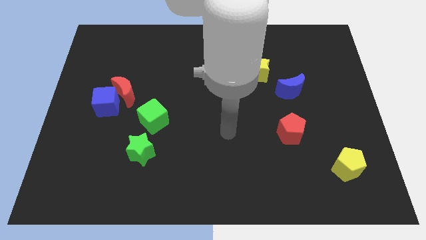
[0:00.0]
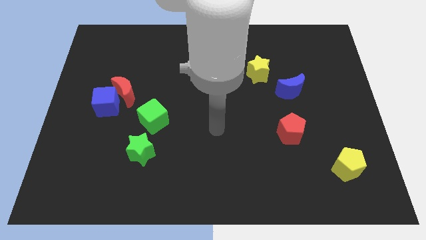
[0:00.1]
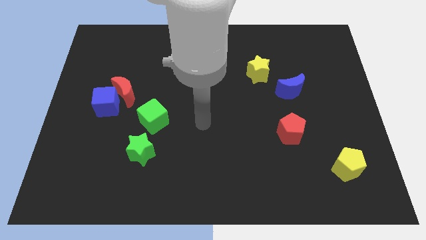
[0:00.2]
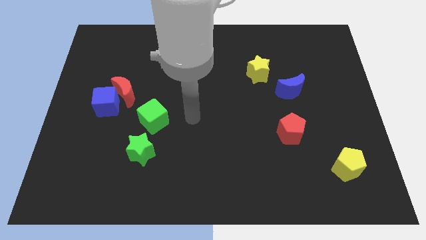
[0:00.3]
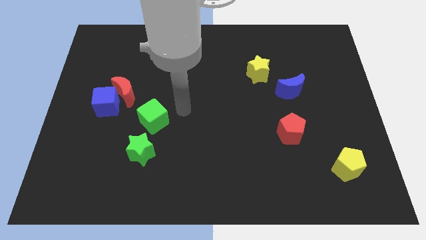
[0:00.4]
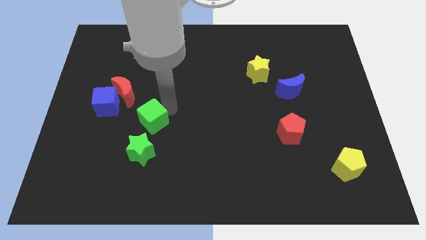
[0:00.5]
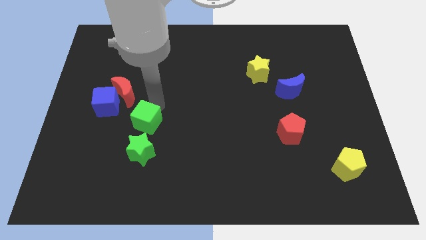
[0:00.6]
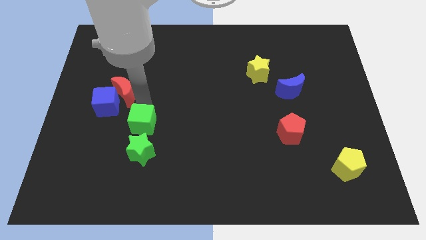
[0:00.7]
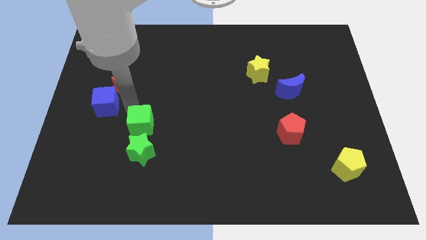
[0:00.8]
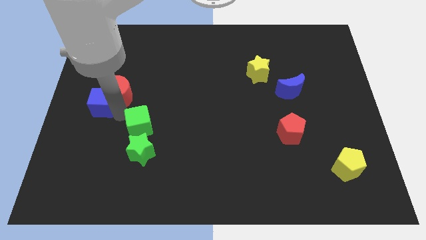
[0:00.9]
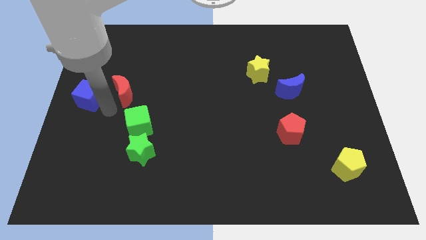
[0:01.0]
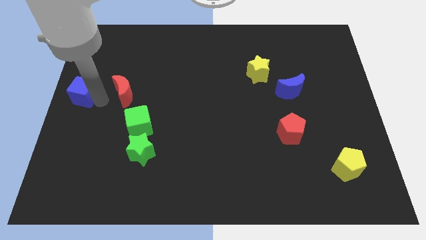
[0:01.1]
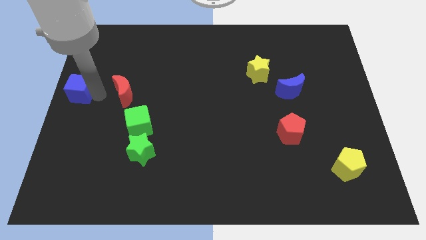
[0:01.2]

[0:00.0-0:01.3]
move the red moon away from the blue cube

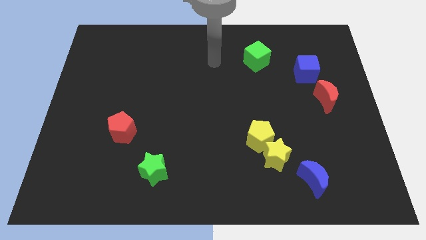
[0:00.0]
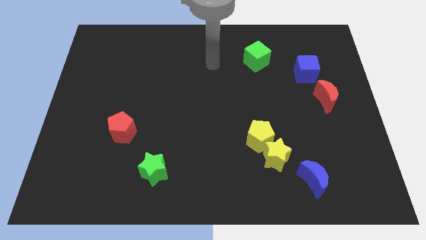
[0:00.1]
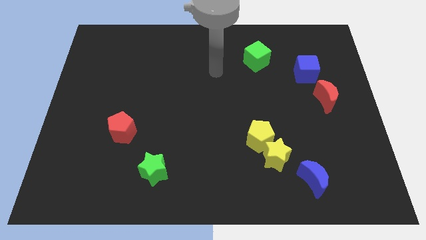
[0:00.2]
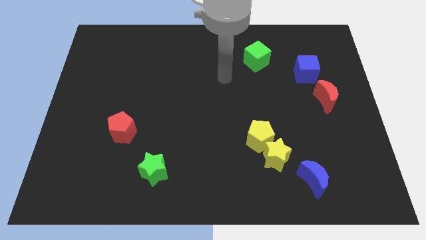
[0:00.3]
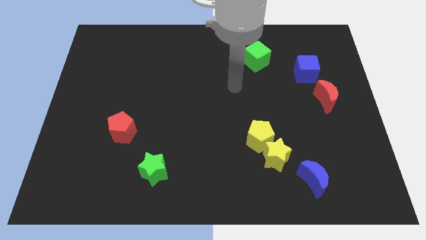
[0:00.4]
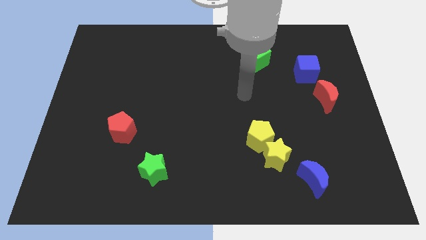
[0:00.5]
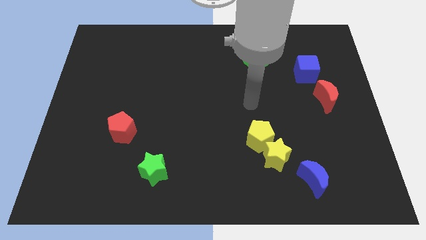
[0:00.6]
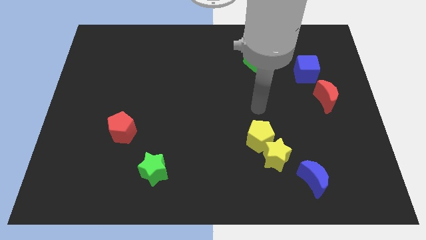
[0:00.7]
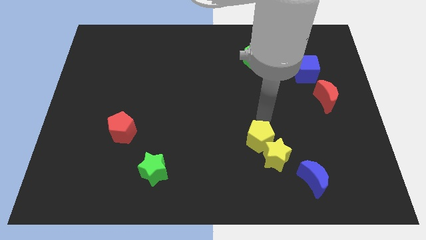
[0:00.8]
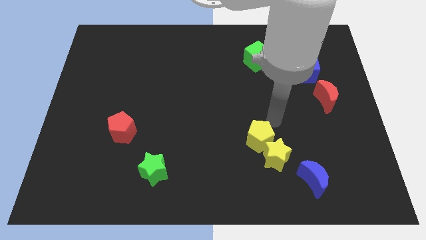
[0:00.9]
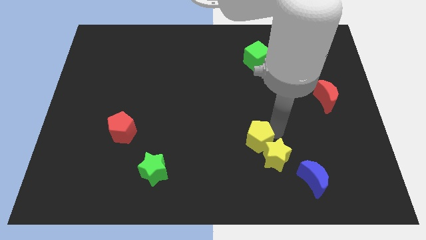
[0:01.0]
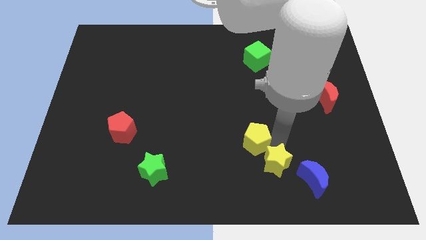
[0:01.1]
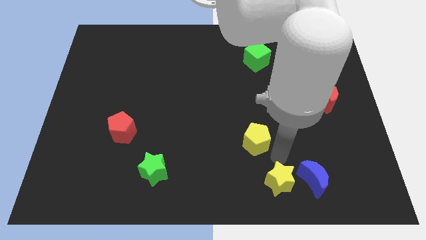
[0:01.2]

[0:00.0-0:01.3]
separate the yellow pentagon from the yellow star

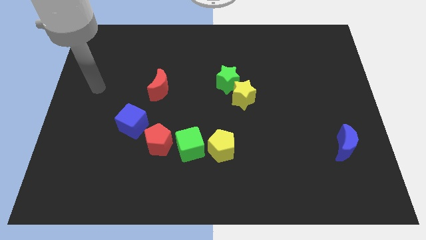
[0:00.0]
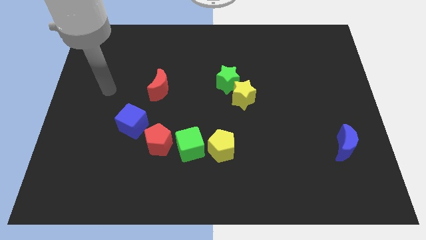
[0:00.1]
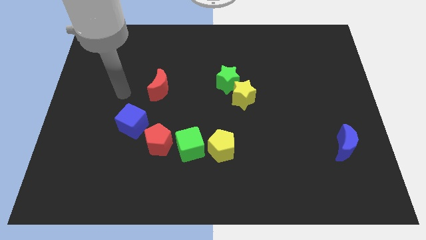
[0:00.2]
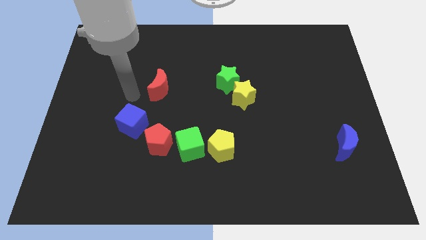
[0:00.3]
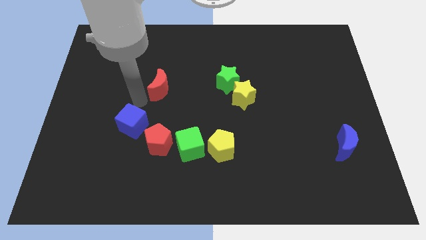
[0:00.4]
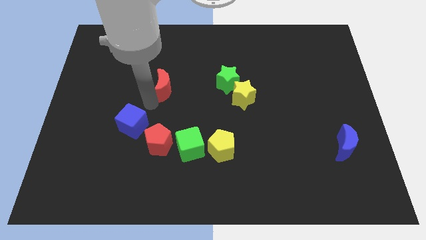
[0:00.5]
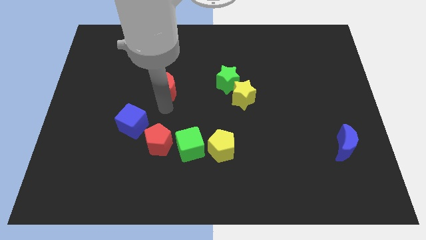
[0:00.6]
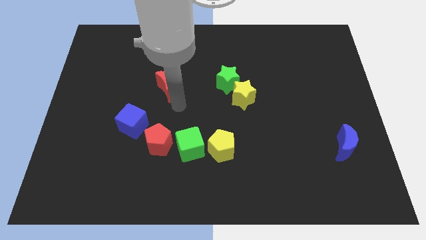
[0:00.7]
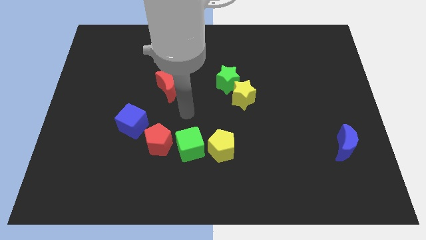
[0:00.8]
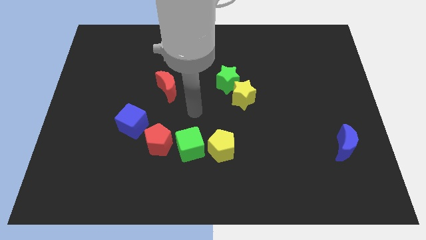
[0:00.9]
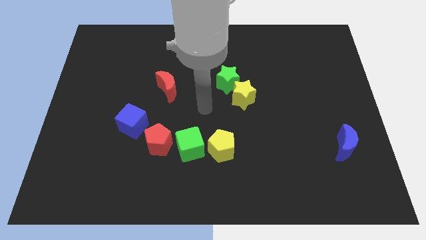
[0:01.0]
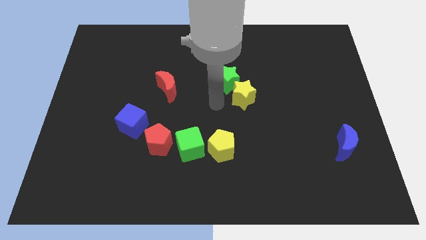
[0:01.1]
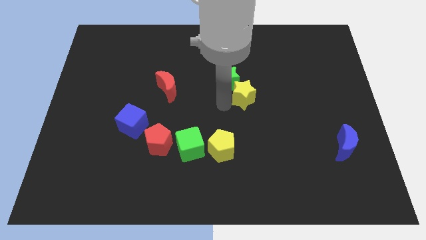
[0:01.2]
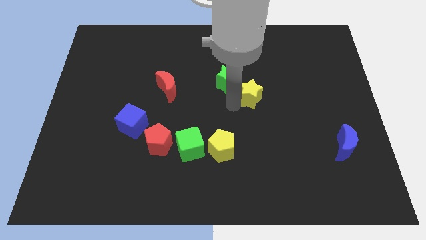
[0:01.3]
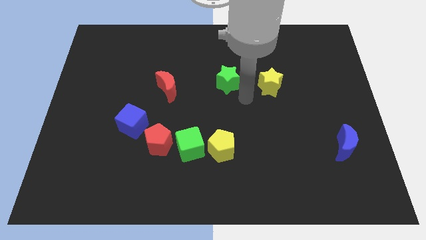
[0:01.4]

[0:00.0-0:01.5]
move the green star away from the yellow star

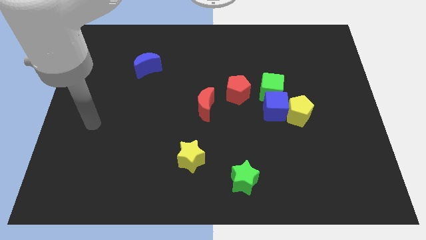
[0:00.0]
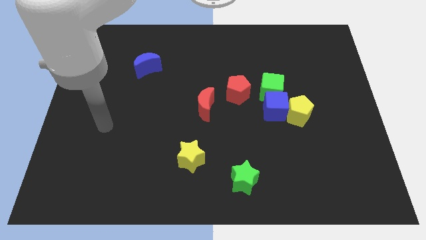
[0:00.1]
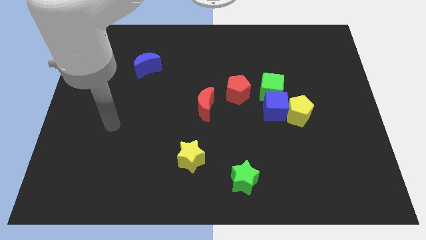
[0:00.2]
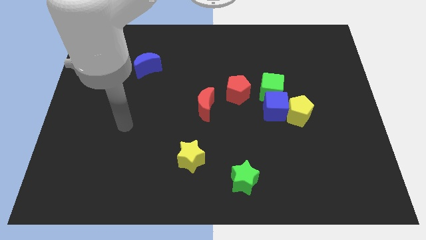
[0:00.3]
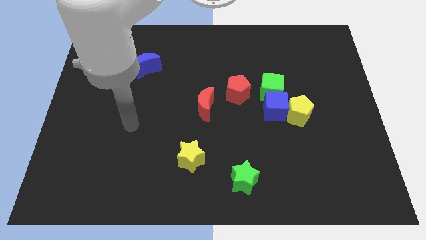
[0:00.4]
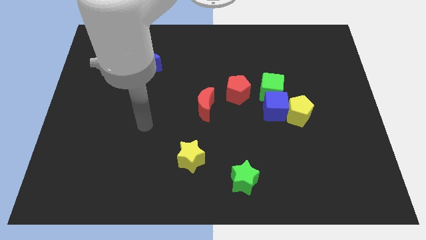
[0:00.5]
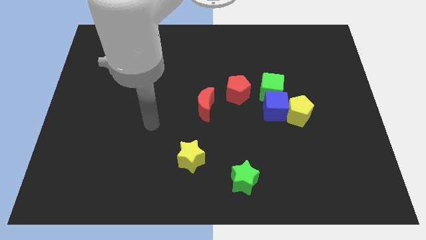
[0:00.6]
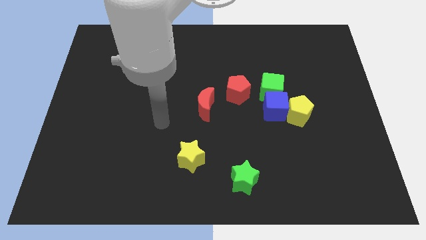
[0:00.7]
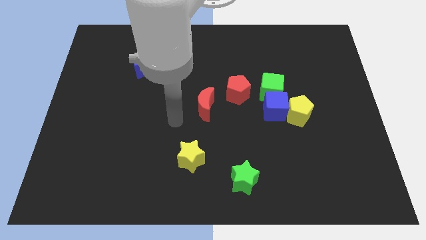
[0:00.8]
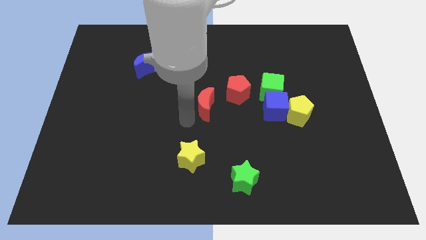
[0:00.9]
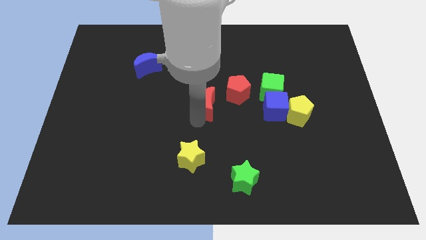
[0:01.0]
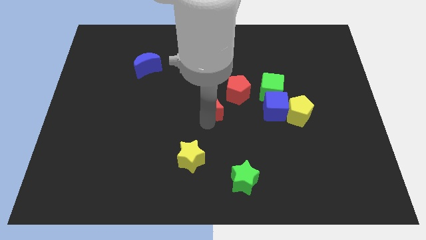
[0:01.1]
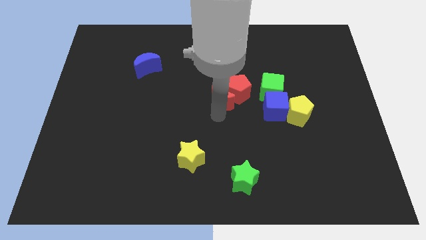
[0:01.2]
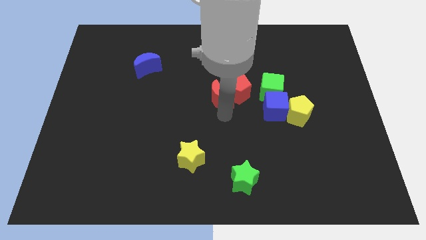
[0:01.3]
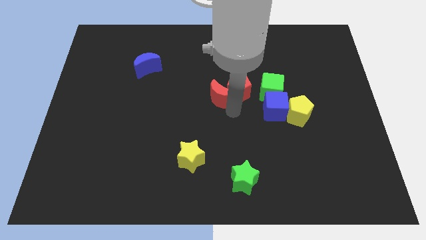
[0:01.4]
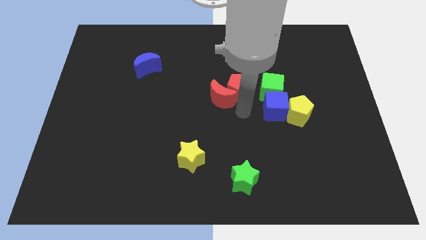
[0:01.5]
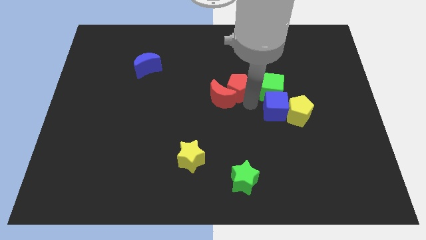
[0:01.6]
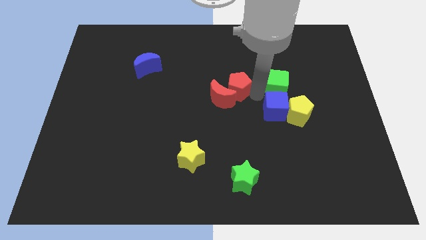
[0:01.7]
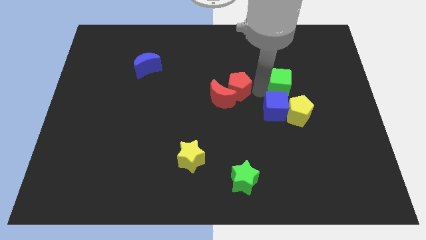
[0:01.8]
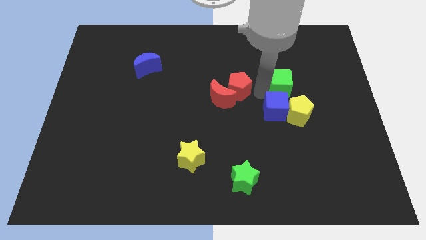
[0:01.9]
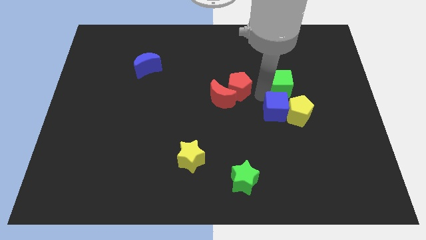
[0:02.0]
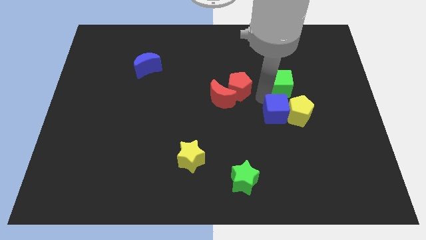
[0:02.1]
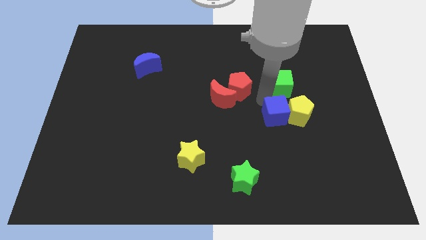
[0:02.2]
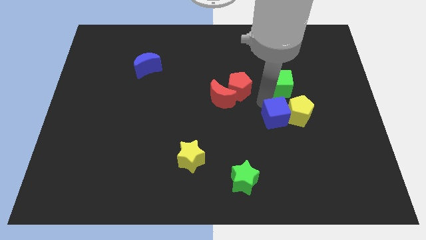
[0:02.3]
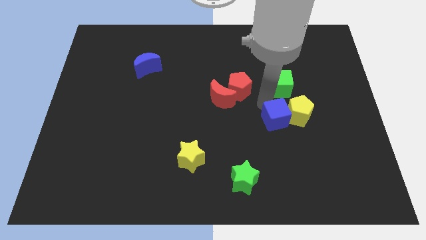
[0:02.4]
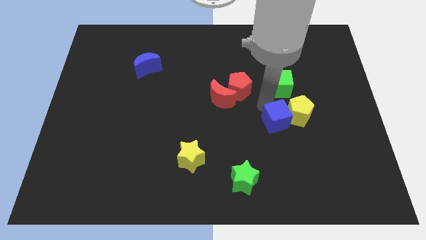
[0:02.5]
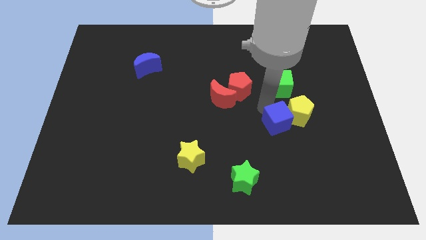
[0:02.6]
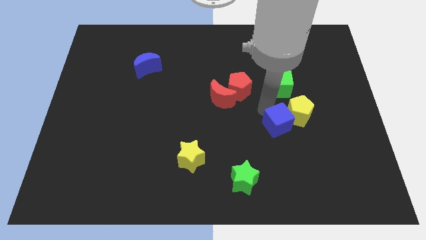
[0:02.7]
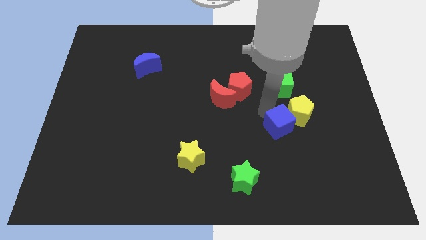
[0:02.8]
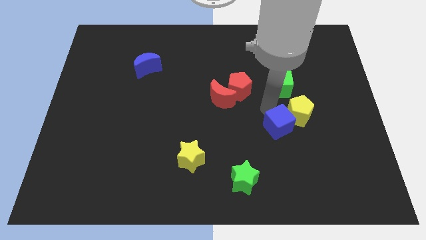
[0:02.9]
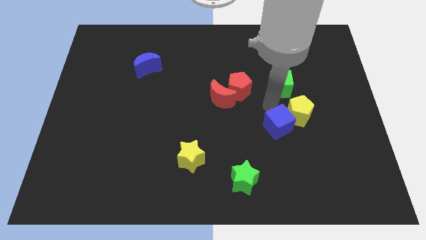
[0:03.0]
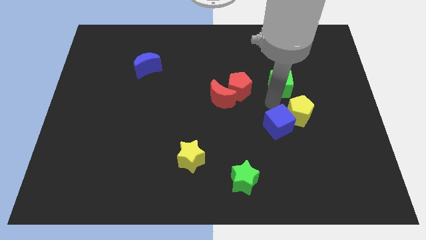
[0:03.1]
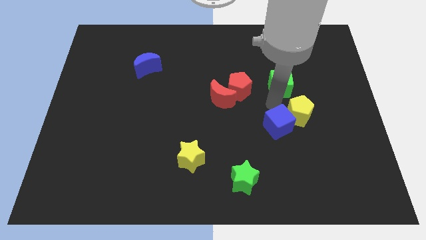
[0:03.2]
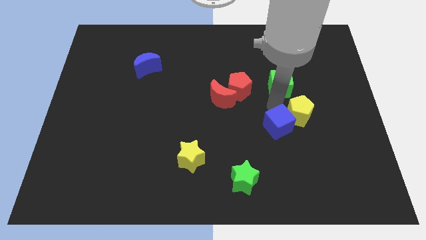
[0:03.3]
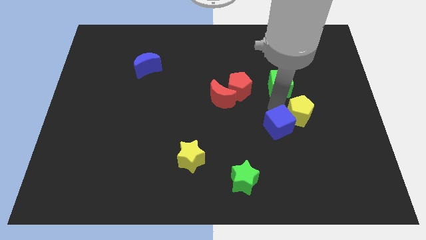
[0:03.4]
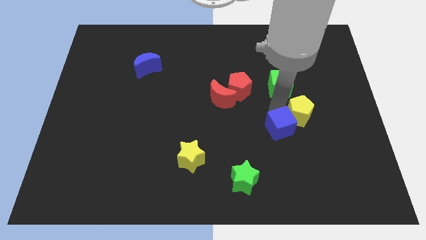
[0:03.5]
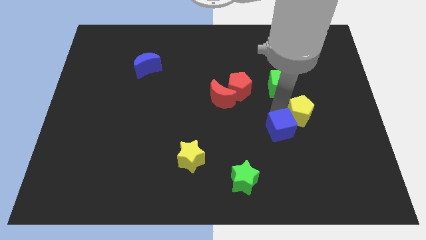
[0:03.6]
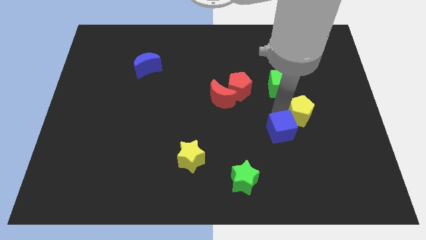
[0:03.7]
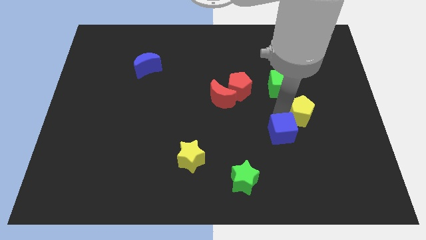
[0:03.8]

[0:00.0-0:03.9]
pull the blue cube apart from the yellow pentagon, green cube, and red pentagon

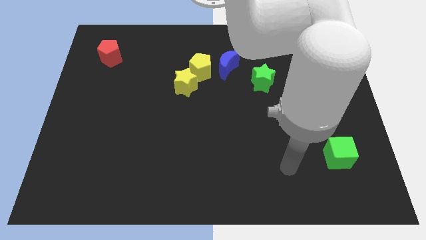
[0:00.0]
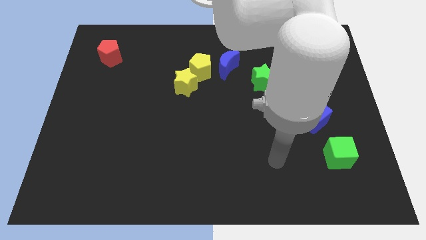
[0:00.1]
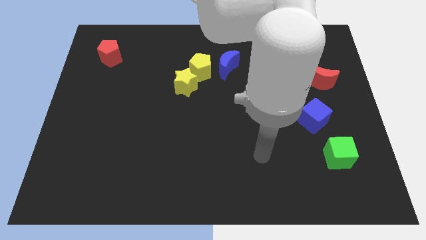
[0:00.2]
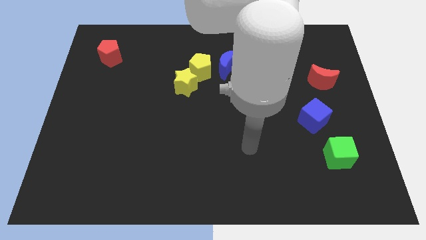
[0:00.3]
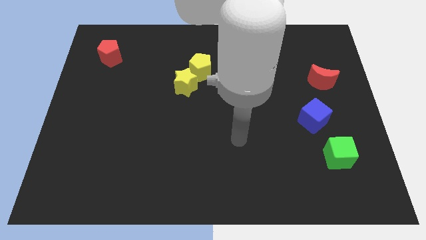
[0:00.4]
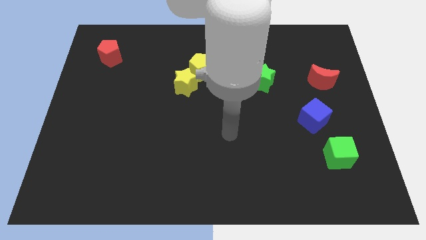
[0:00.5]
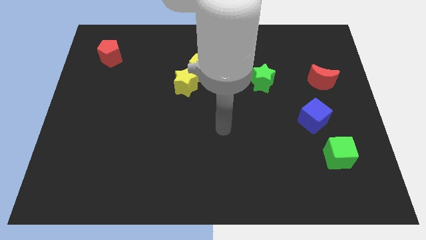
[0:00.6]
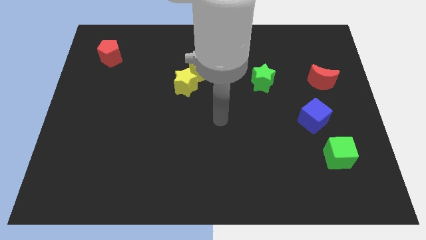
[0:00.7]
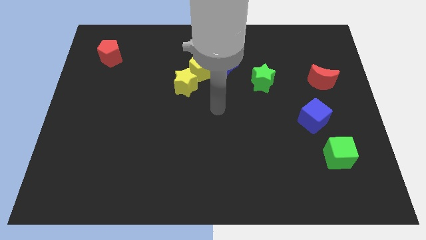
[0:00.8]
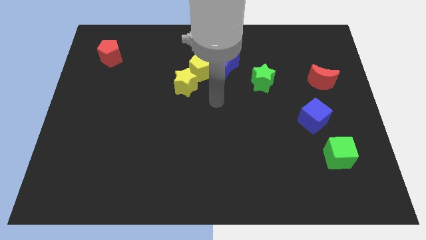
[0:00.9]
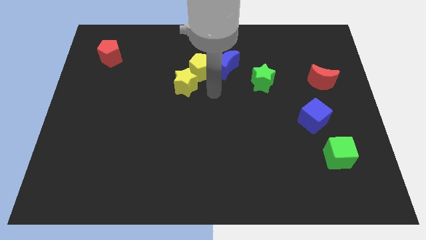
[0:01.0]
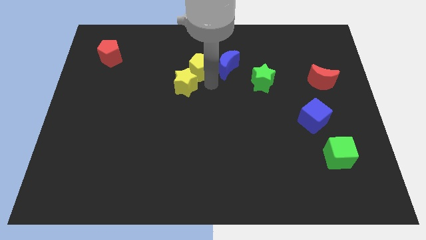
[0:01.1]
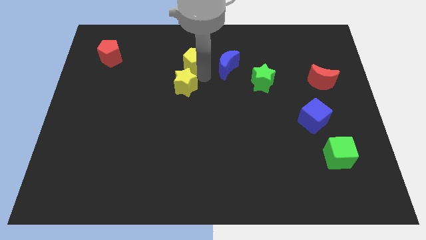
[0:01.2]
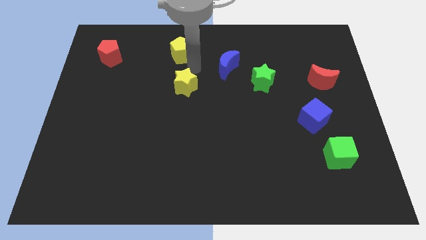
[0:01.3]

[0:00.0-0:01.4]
pull the yellow star apart from the yellow pentagon
